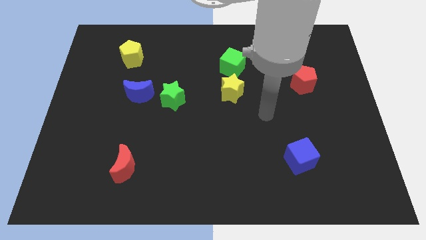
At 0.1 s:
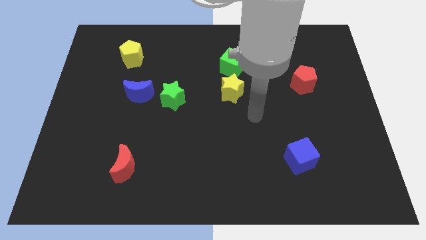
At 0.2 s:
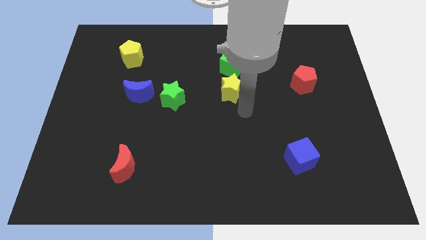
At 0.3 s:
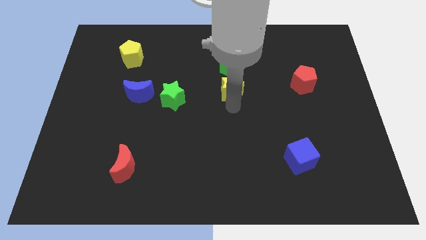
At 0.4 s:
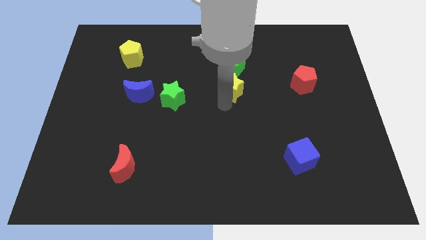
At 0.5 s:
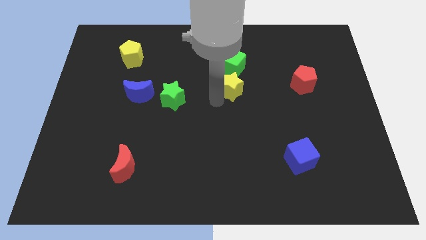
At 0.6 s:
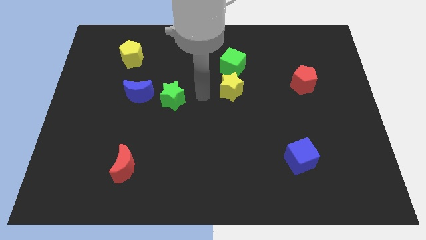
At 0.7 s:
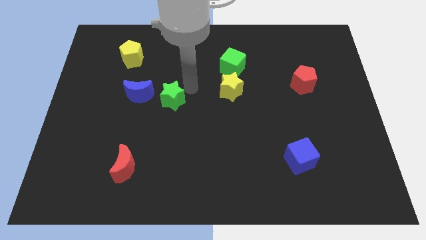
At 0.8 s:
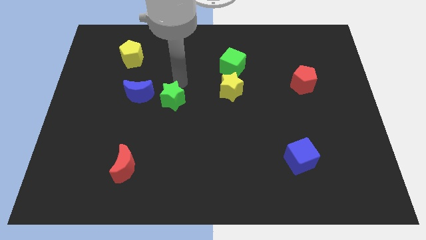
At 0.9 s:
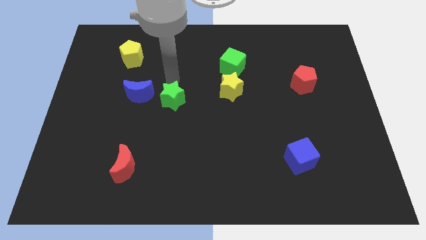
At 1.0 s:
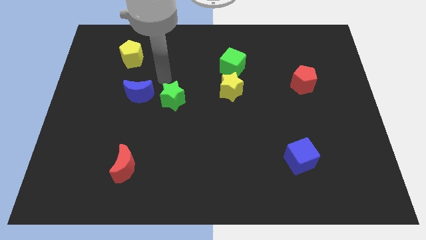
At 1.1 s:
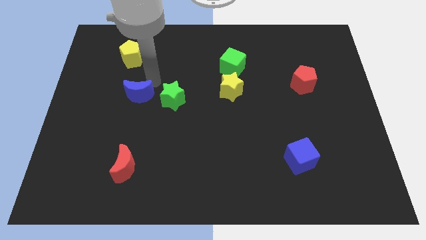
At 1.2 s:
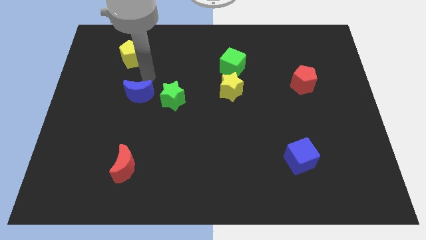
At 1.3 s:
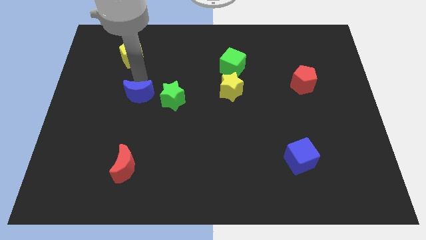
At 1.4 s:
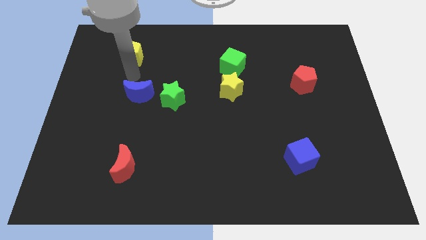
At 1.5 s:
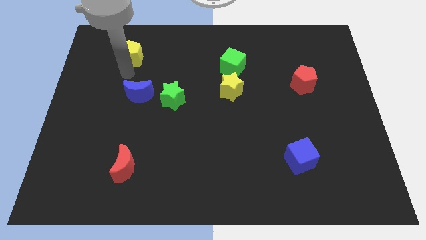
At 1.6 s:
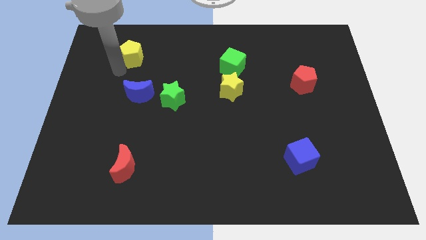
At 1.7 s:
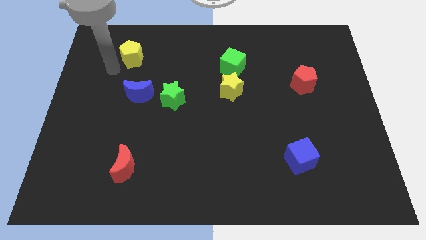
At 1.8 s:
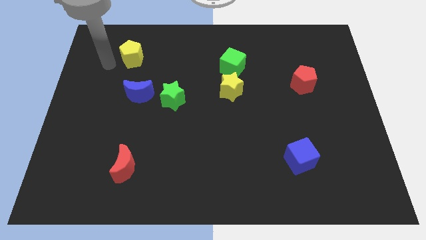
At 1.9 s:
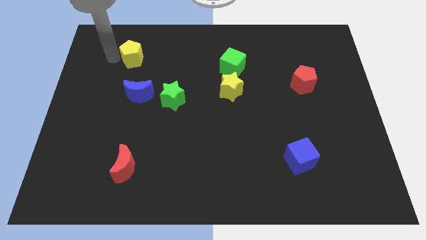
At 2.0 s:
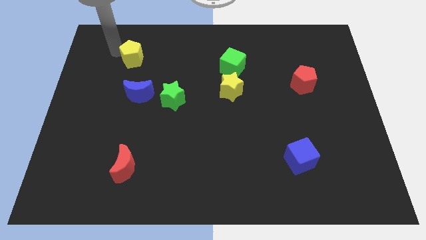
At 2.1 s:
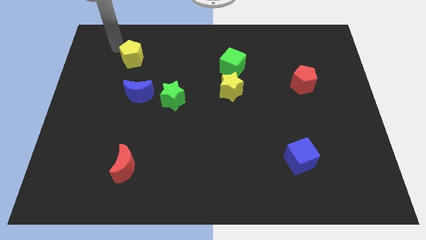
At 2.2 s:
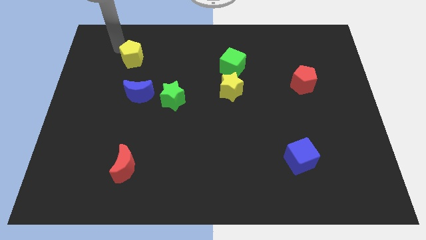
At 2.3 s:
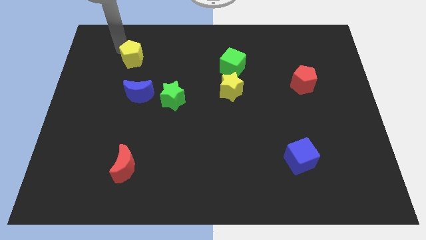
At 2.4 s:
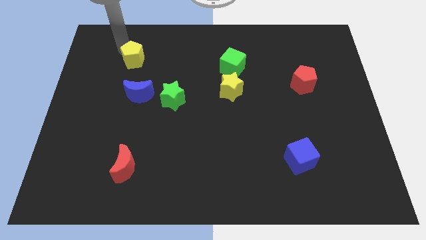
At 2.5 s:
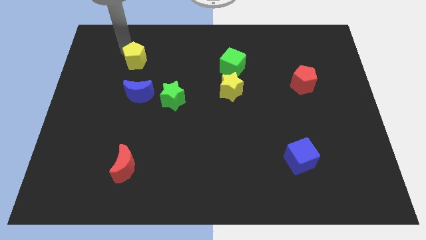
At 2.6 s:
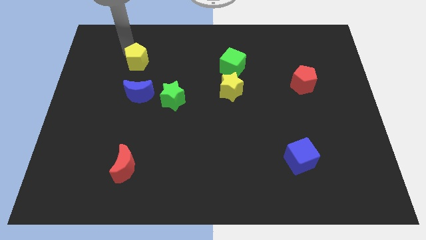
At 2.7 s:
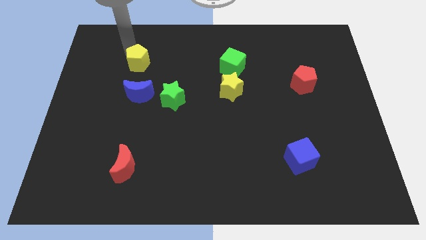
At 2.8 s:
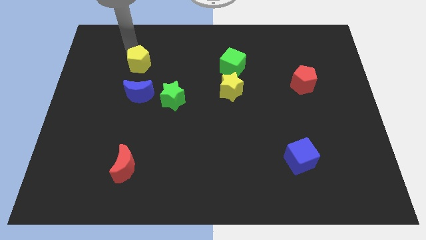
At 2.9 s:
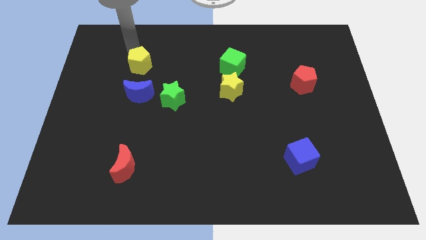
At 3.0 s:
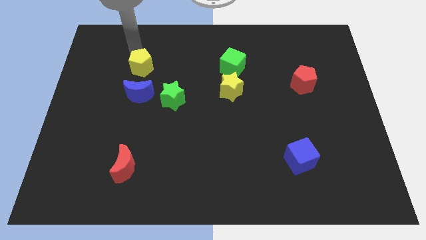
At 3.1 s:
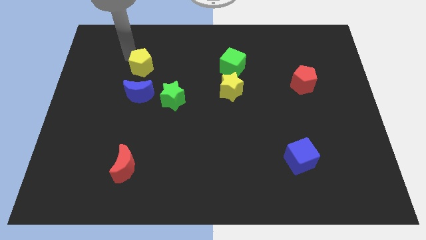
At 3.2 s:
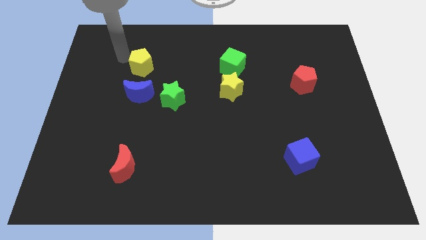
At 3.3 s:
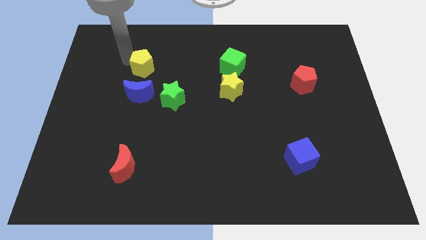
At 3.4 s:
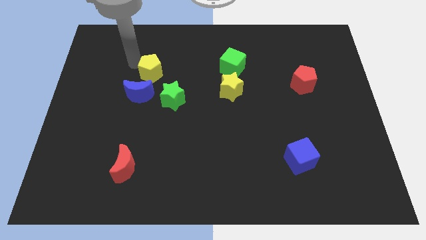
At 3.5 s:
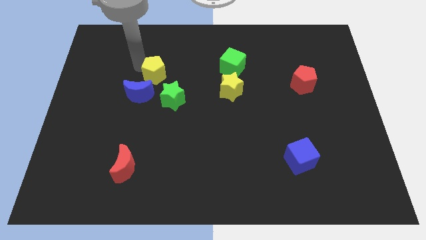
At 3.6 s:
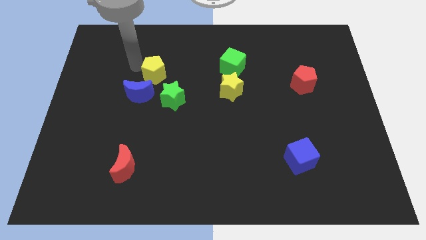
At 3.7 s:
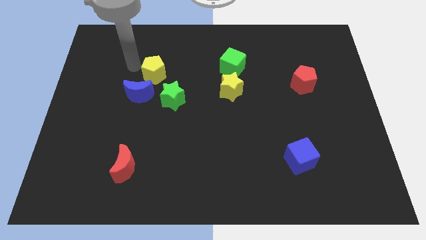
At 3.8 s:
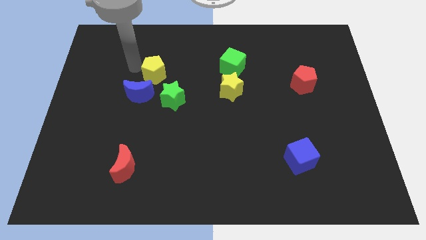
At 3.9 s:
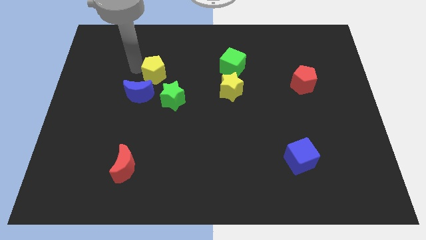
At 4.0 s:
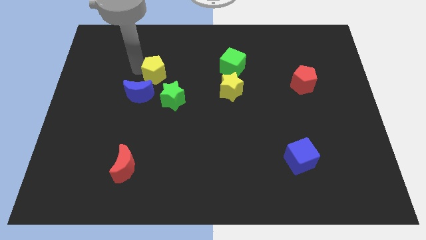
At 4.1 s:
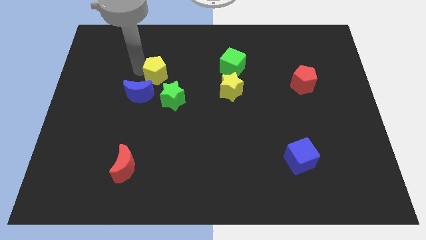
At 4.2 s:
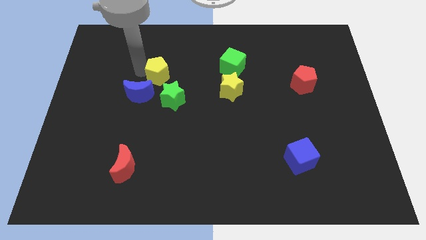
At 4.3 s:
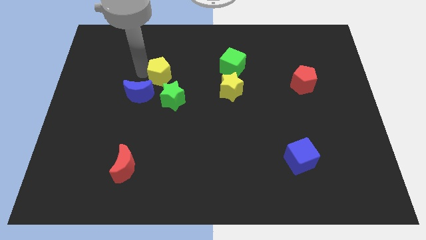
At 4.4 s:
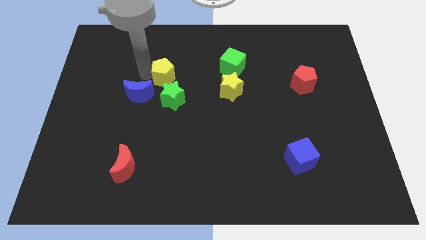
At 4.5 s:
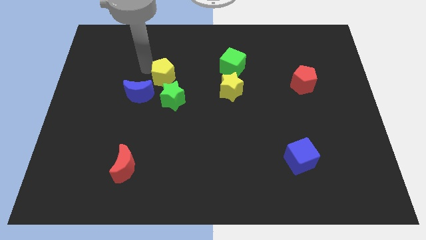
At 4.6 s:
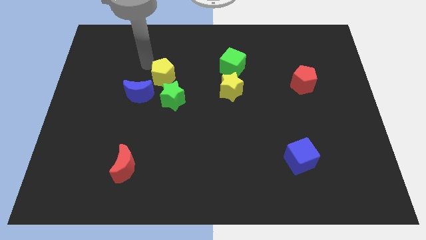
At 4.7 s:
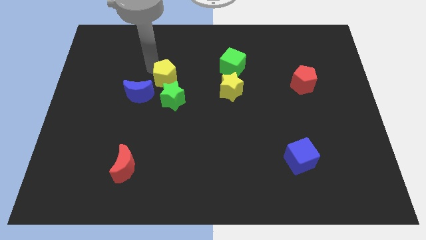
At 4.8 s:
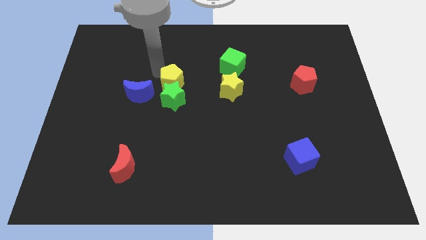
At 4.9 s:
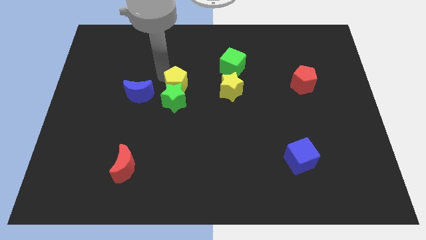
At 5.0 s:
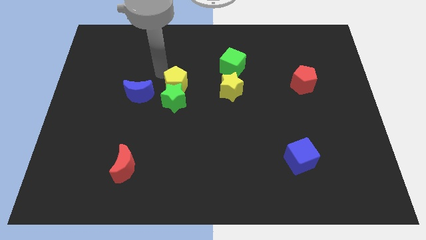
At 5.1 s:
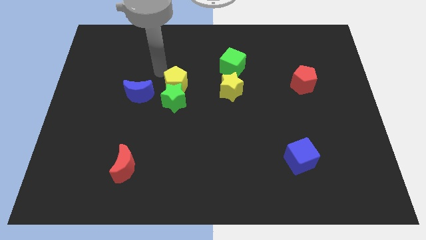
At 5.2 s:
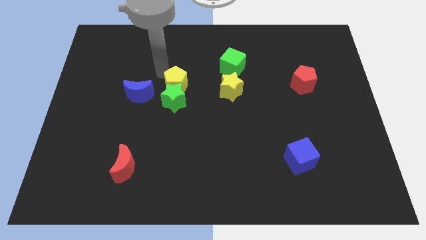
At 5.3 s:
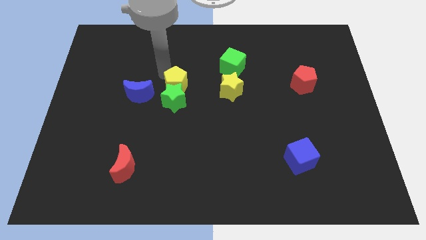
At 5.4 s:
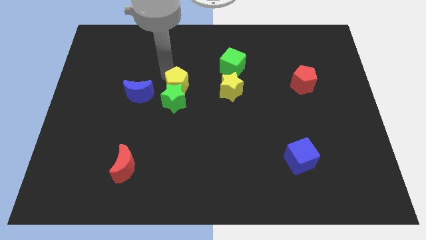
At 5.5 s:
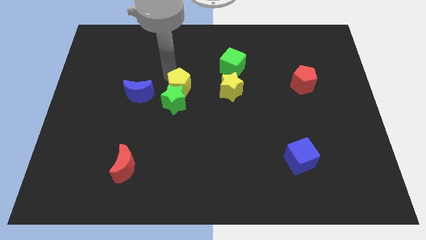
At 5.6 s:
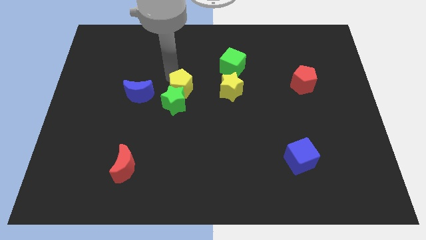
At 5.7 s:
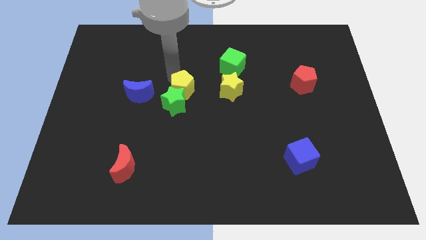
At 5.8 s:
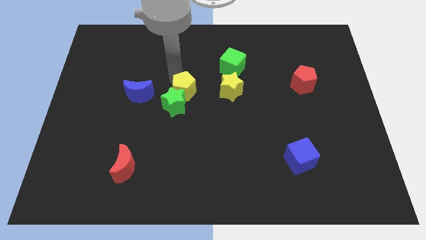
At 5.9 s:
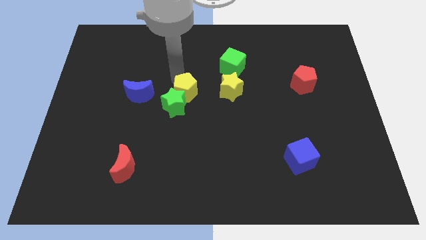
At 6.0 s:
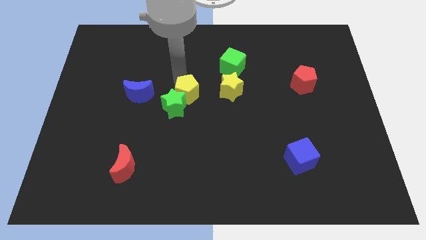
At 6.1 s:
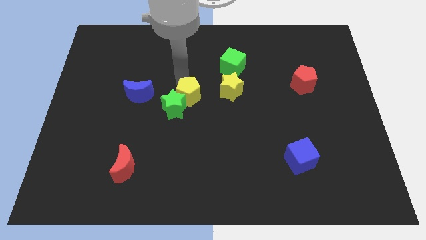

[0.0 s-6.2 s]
push the yellow pentagon diagonally down and to the right

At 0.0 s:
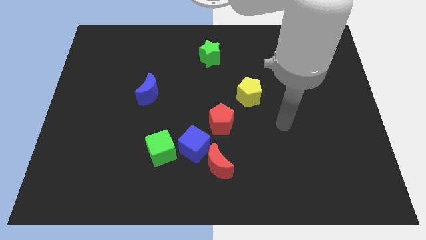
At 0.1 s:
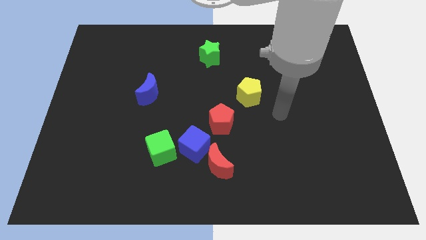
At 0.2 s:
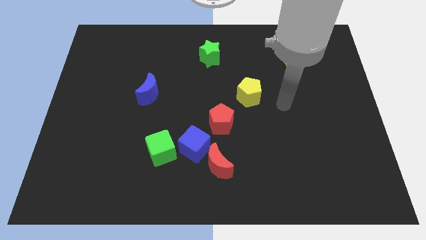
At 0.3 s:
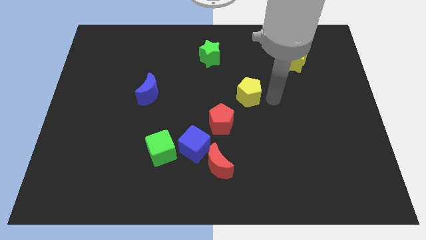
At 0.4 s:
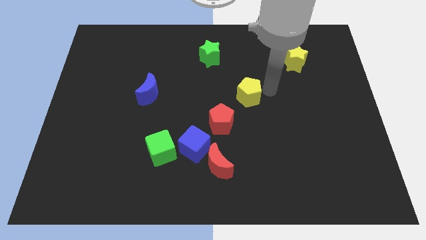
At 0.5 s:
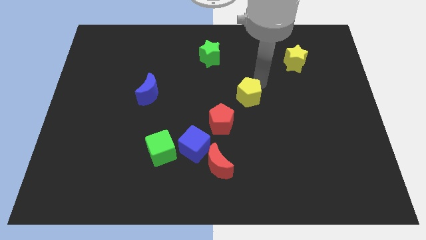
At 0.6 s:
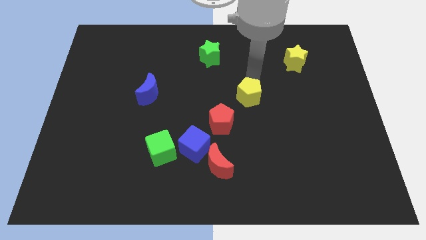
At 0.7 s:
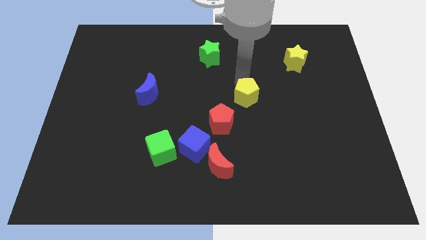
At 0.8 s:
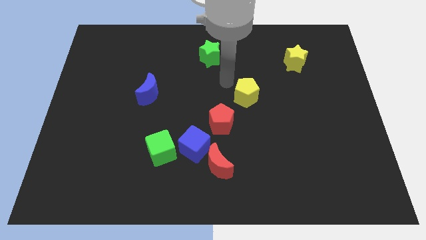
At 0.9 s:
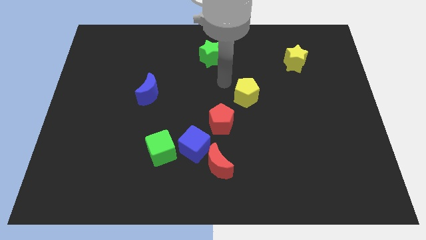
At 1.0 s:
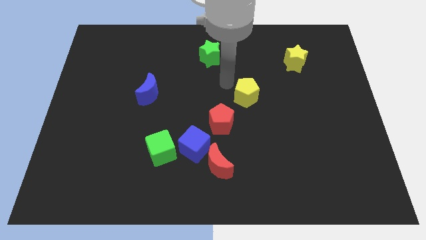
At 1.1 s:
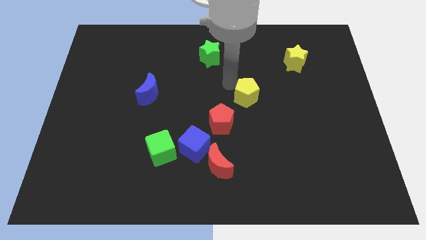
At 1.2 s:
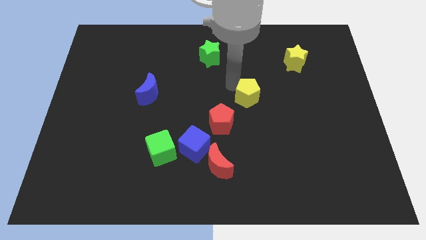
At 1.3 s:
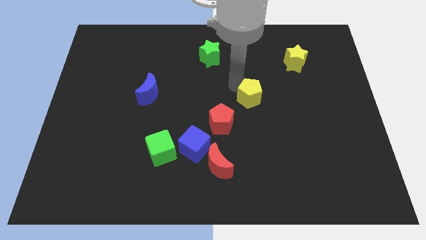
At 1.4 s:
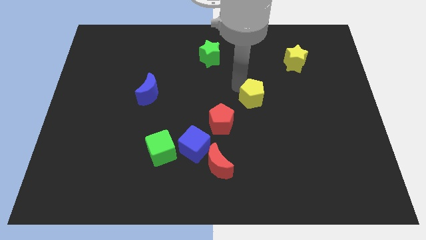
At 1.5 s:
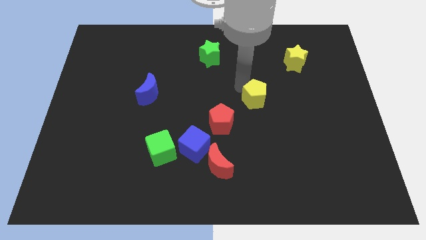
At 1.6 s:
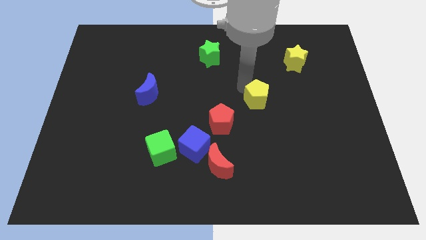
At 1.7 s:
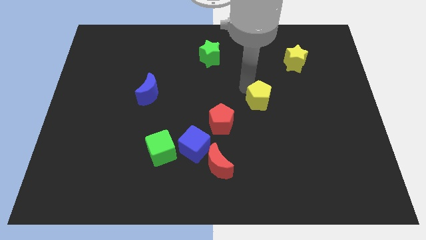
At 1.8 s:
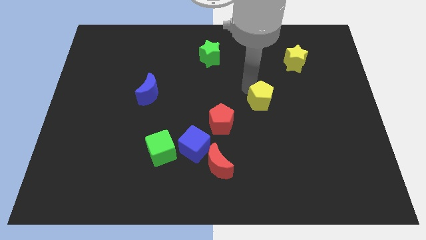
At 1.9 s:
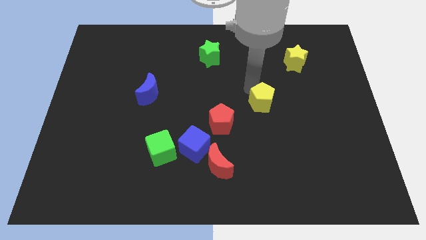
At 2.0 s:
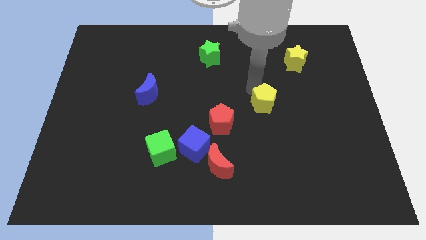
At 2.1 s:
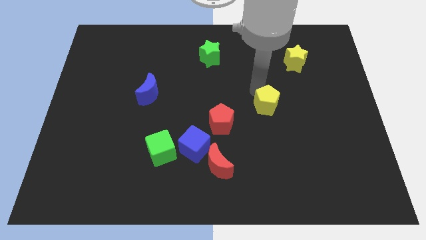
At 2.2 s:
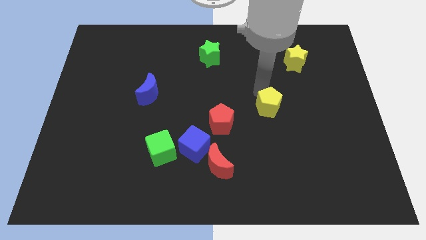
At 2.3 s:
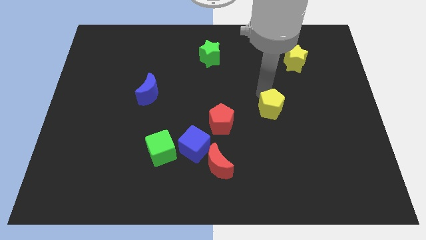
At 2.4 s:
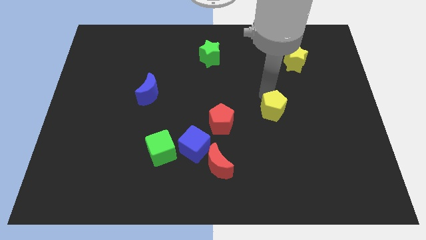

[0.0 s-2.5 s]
slide the yellow pentagon diagonally down and right somewhat
